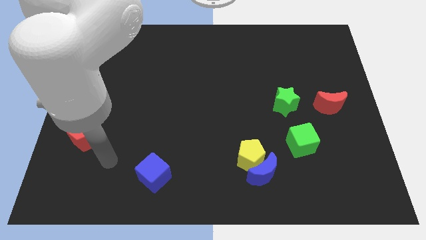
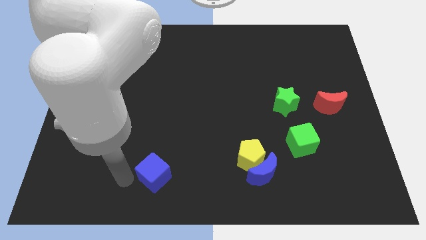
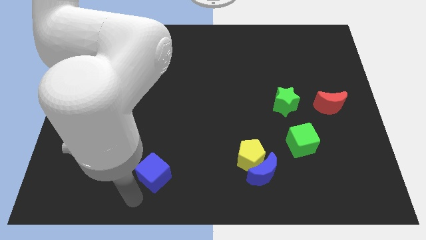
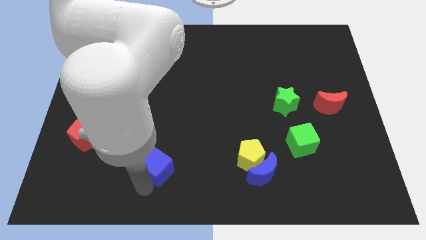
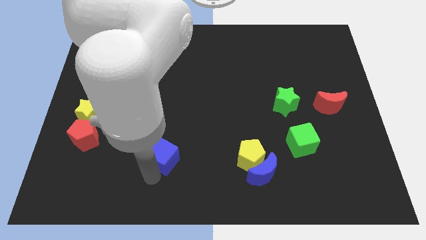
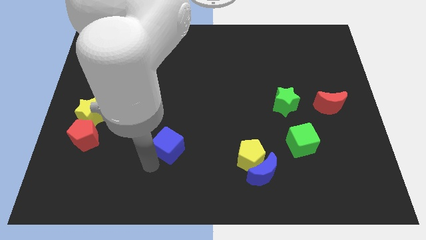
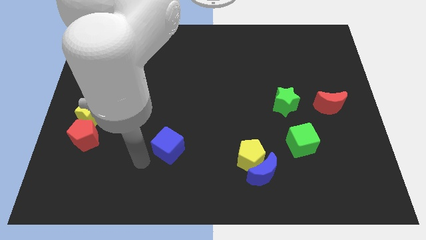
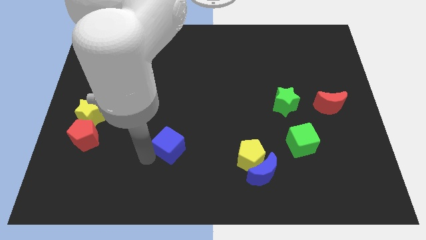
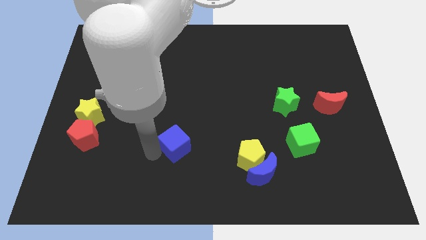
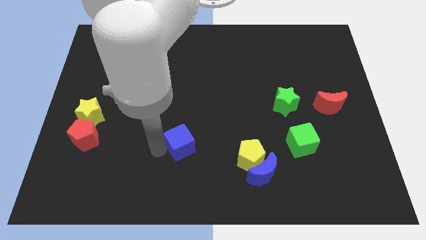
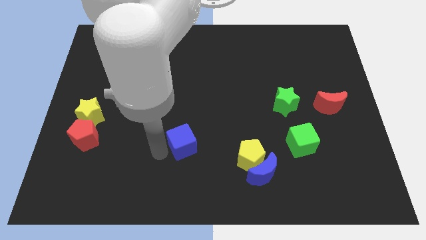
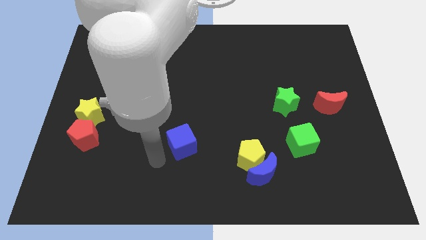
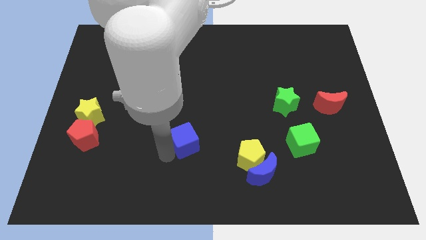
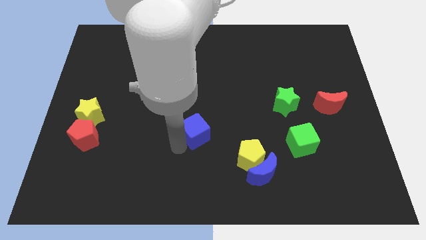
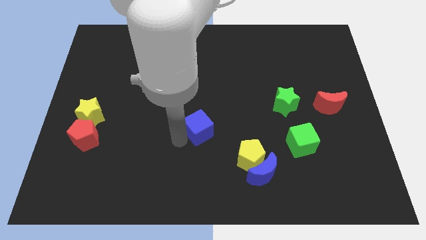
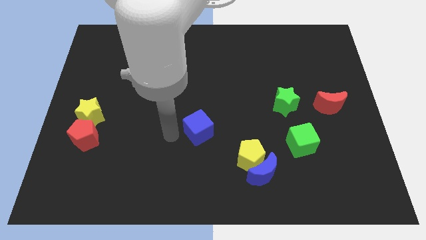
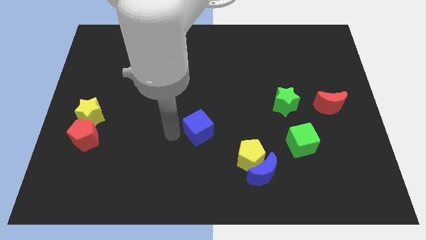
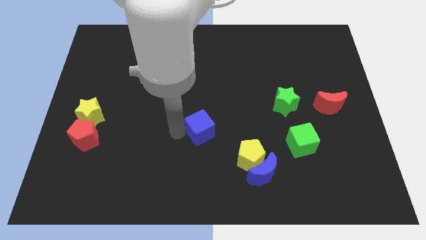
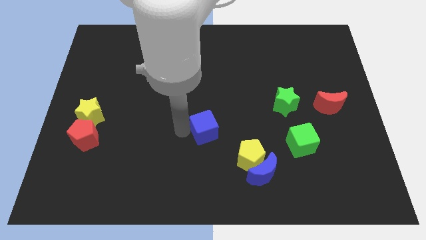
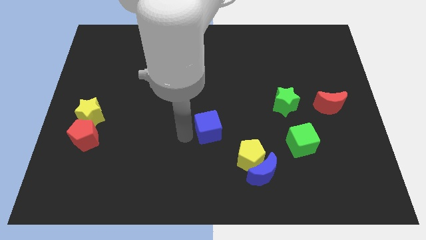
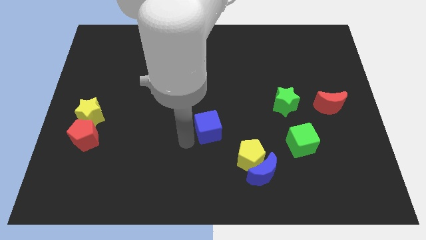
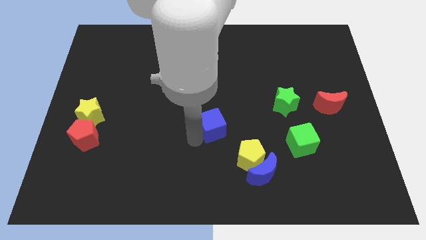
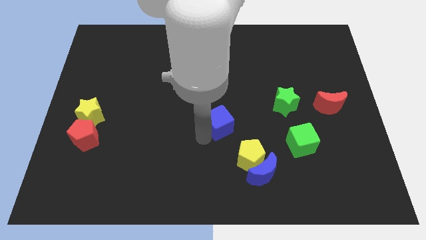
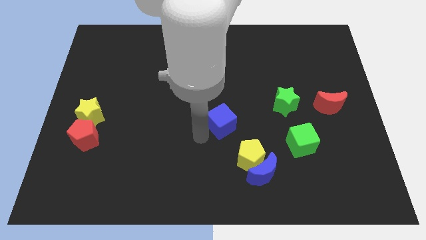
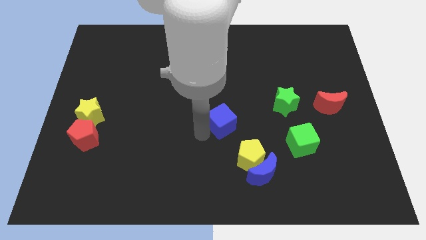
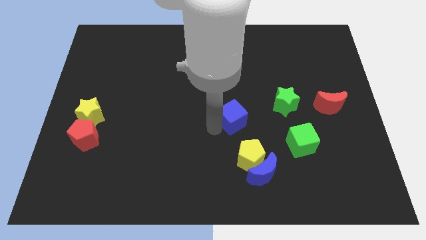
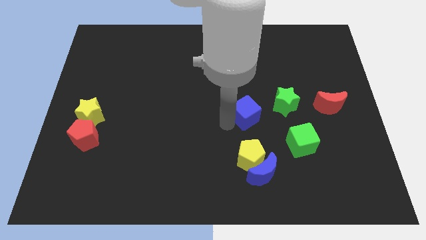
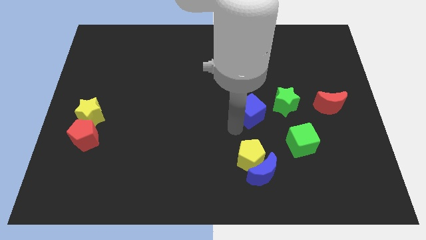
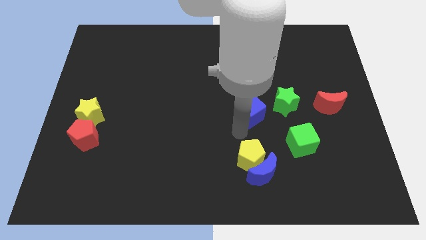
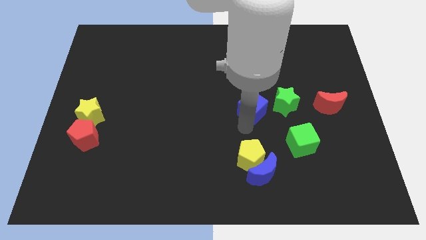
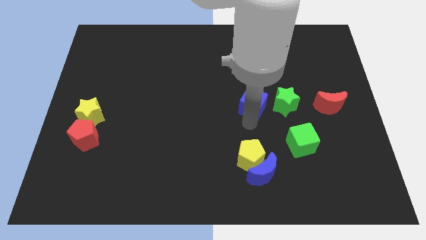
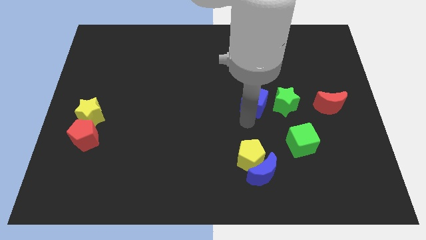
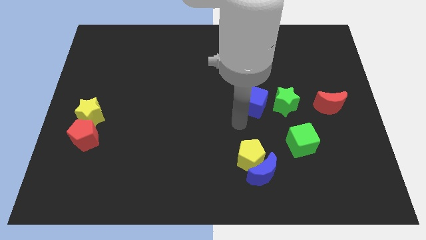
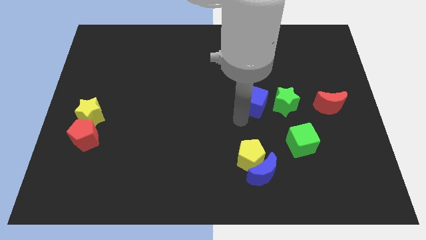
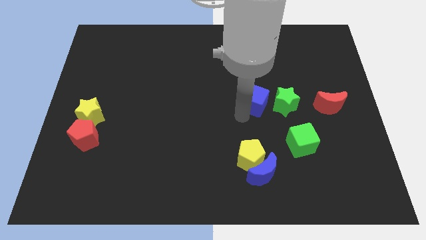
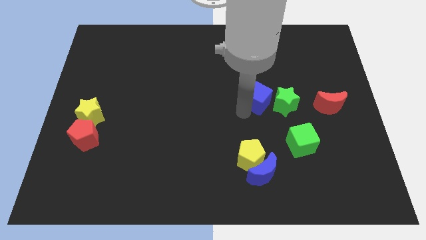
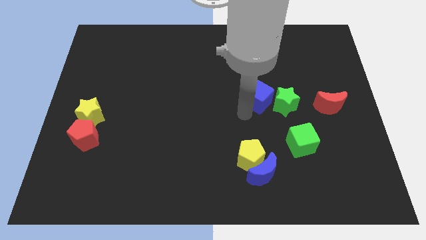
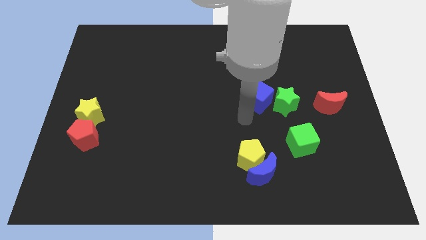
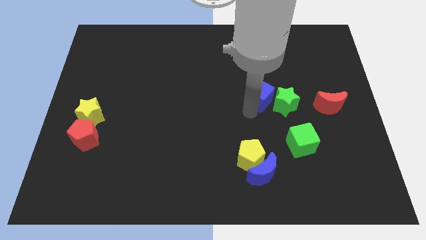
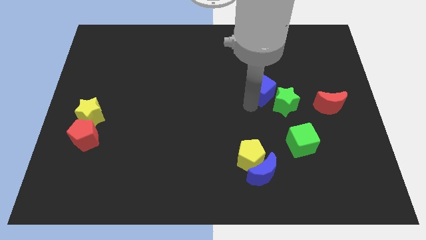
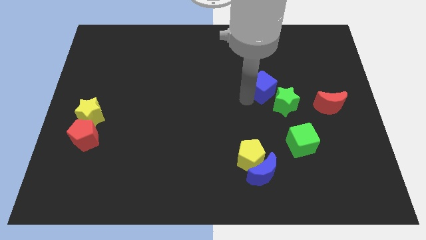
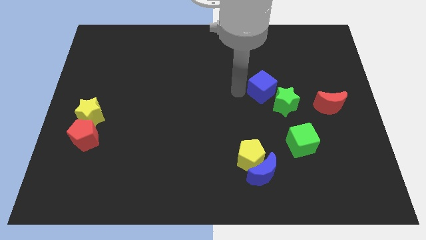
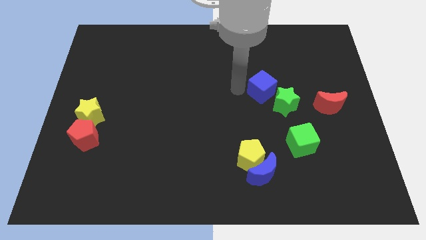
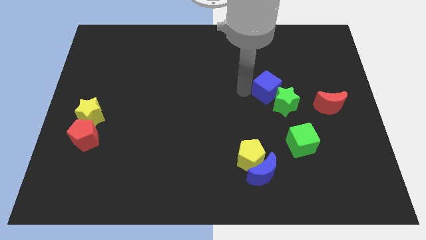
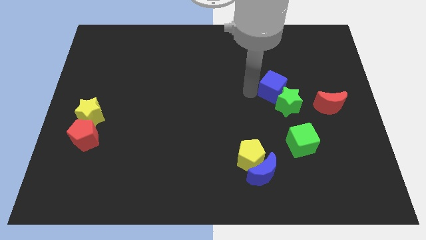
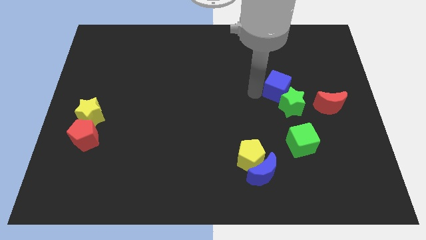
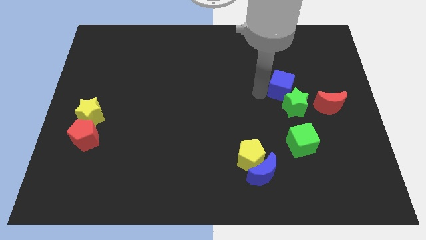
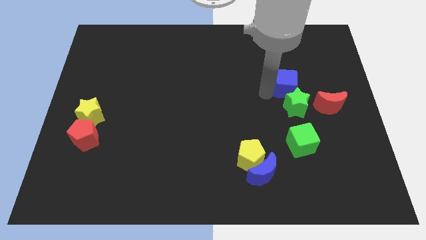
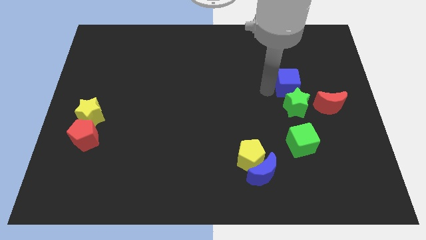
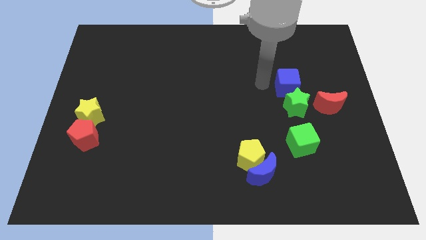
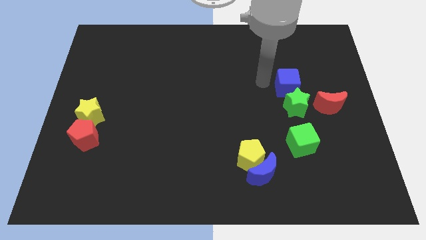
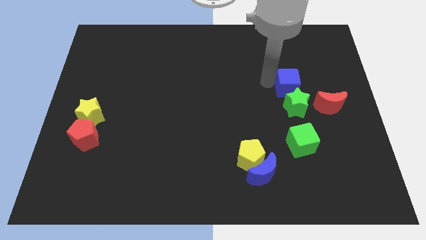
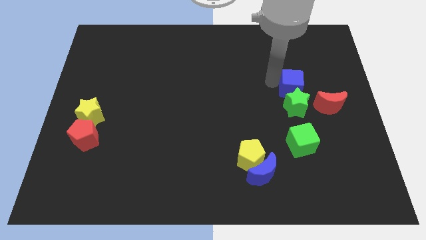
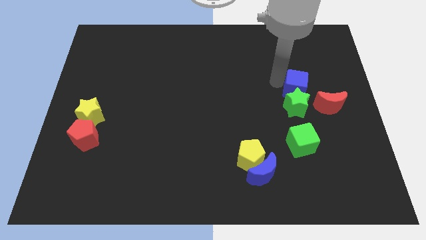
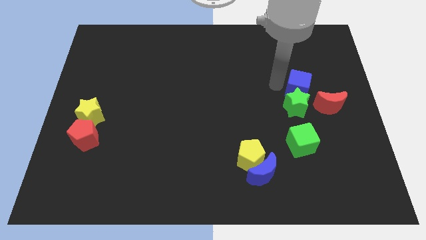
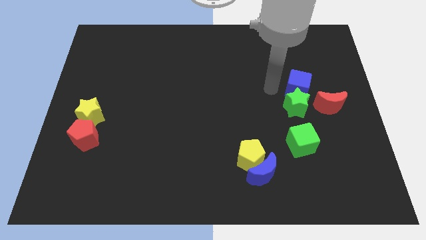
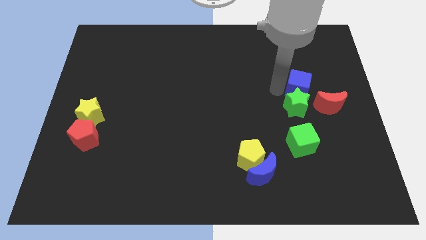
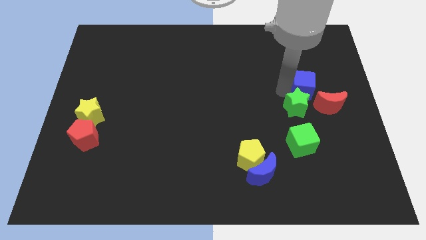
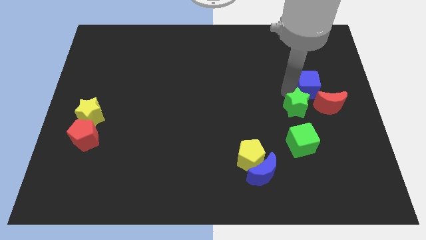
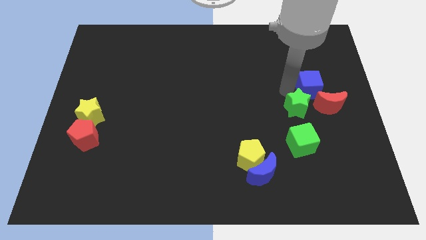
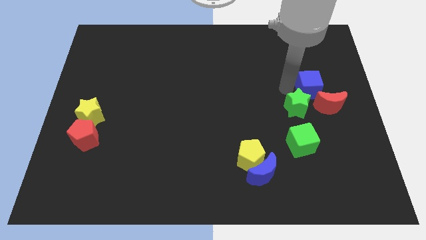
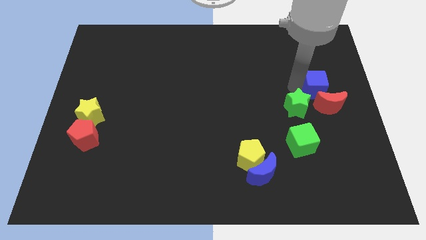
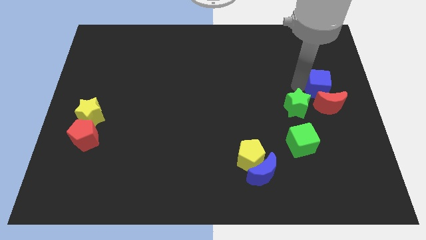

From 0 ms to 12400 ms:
push the blue cube to the right side of the board

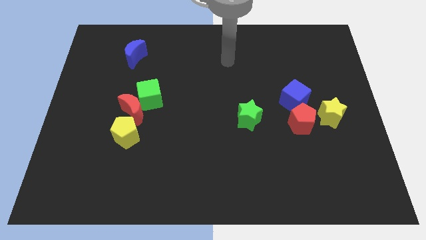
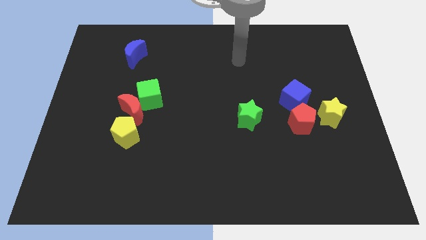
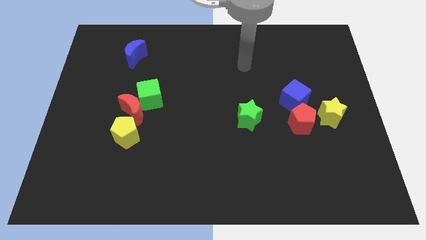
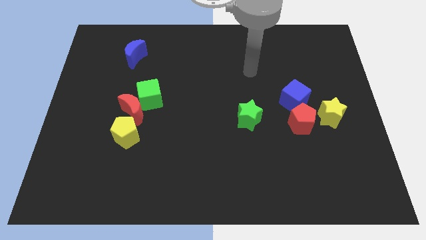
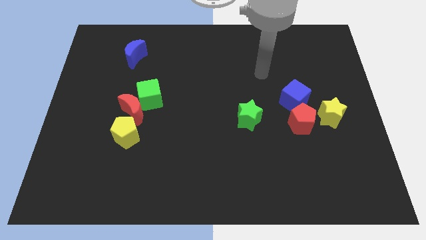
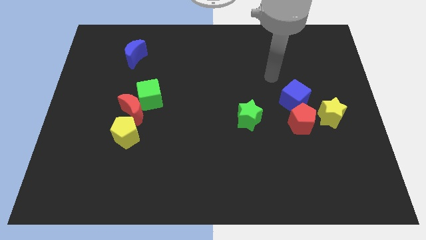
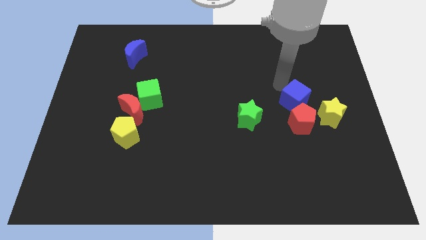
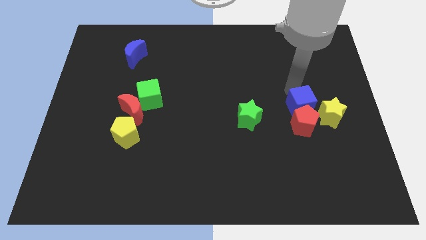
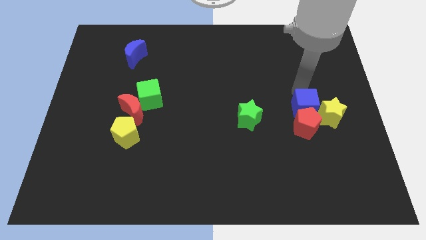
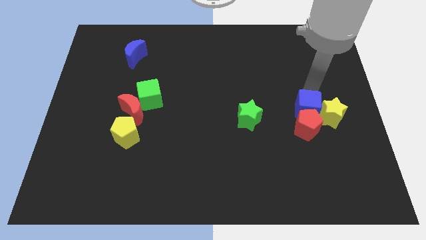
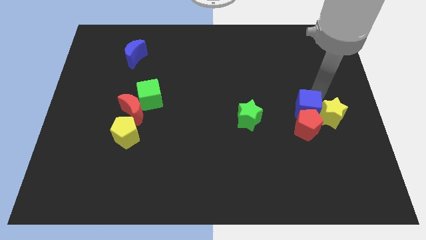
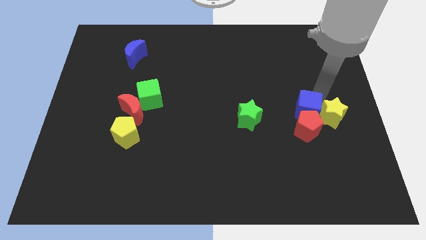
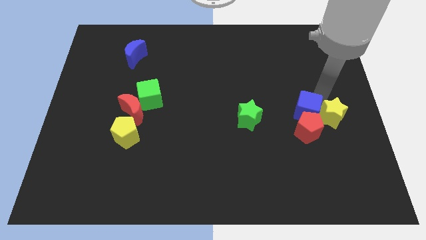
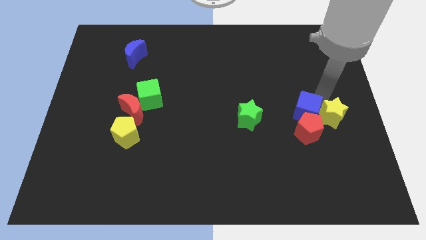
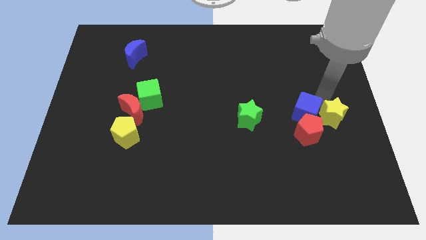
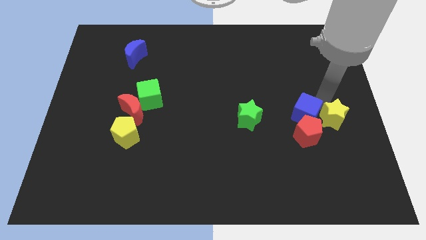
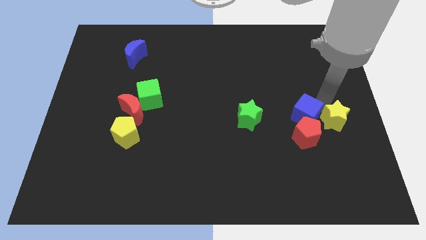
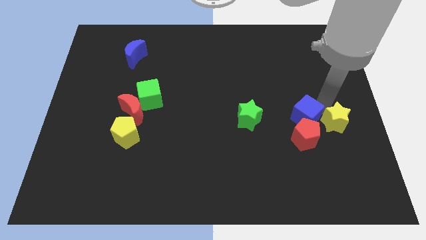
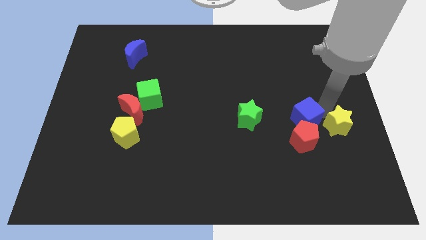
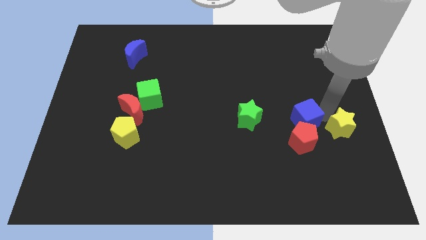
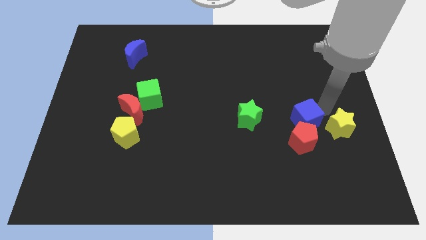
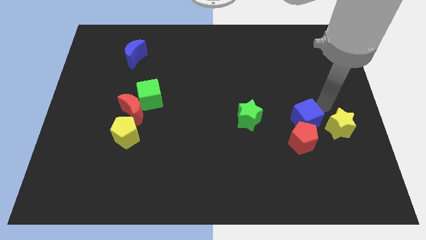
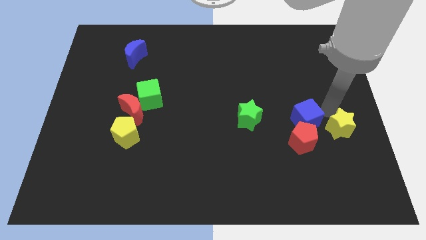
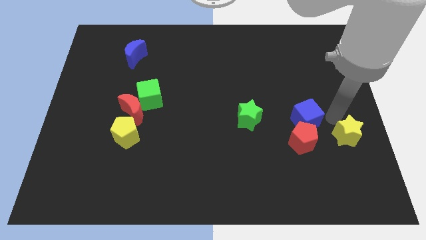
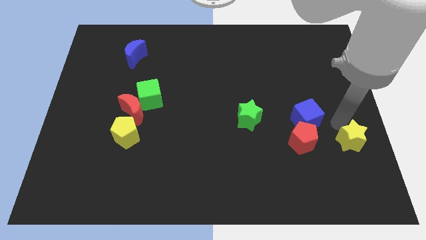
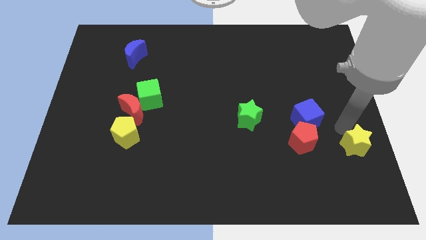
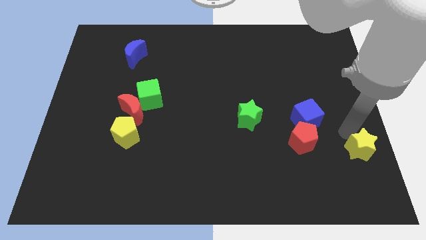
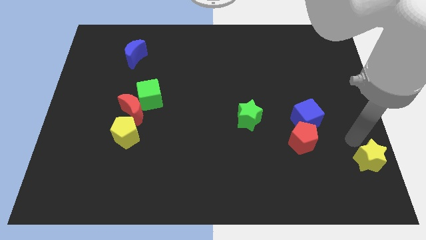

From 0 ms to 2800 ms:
slide the yellow star to the lower right corner
